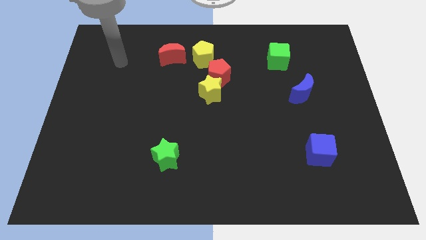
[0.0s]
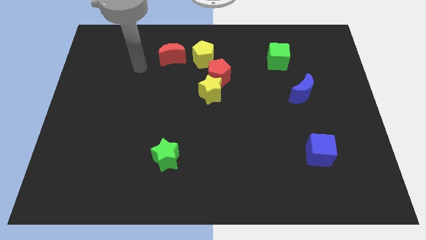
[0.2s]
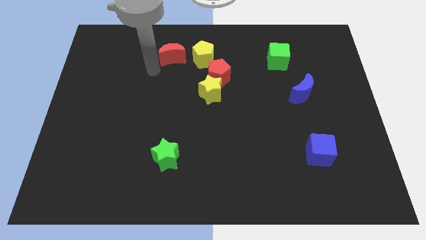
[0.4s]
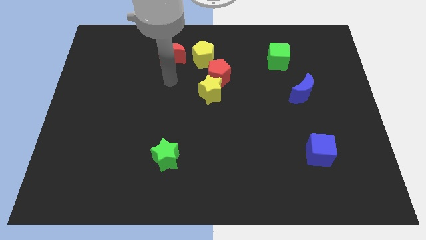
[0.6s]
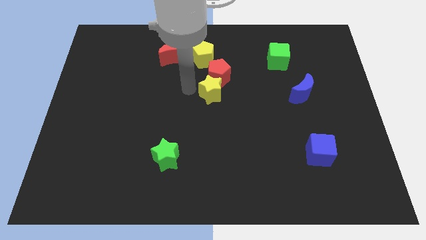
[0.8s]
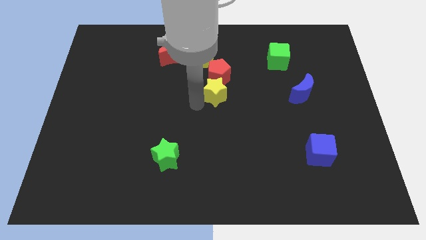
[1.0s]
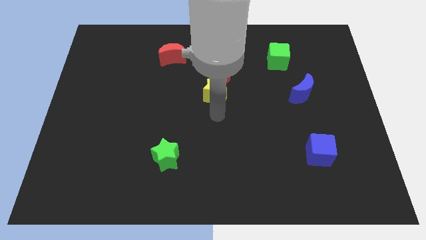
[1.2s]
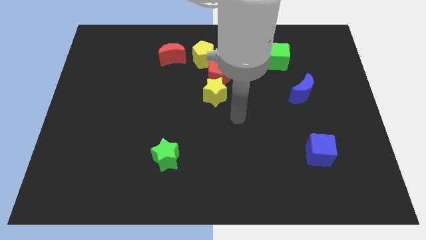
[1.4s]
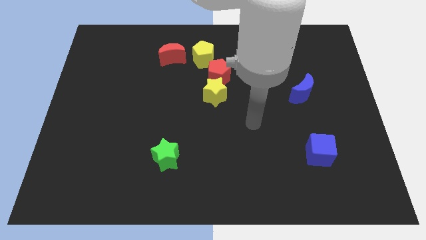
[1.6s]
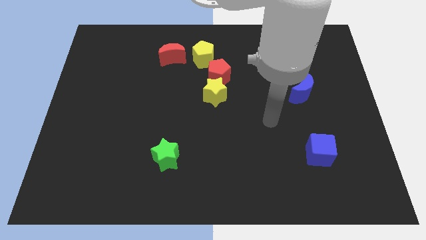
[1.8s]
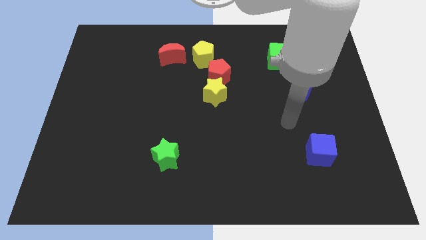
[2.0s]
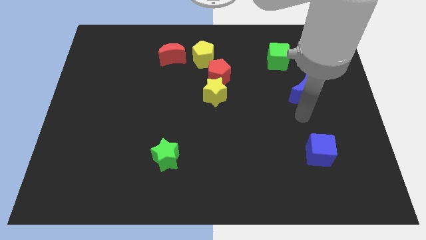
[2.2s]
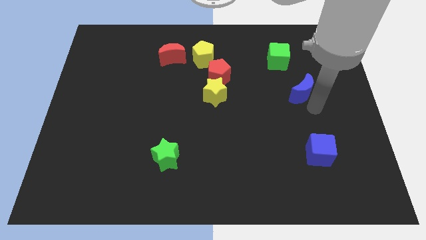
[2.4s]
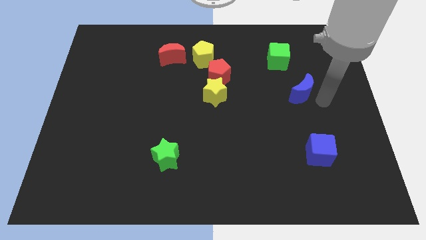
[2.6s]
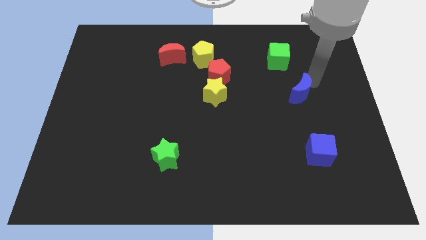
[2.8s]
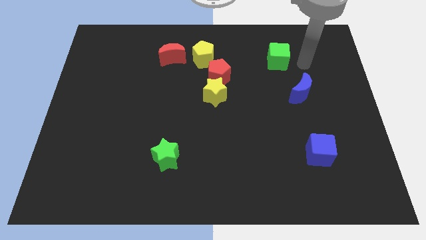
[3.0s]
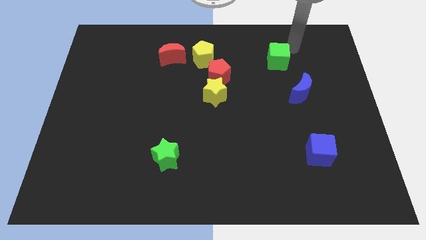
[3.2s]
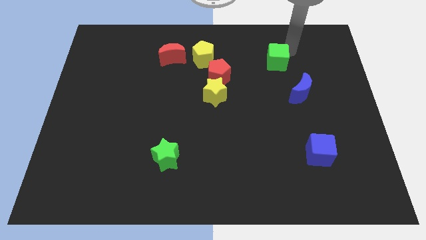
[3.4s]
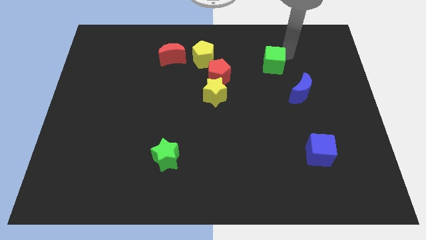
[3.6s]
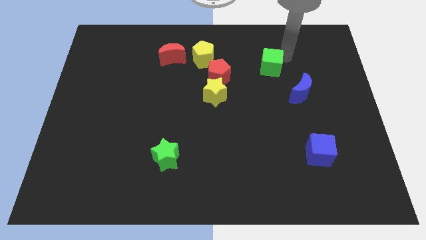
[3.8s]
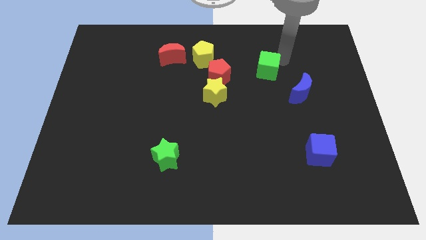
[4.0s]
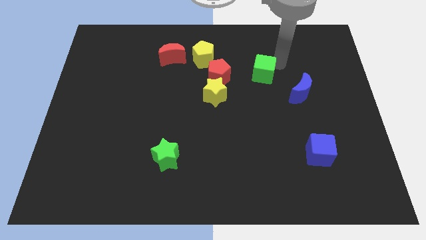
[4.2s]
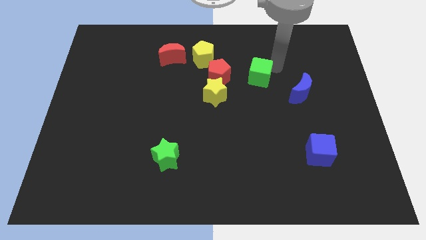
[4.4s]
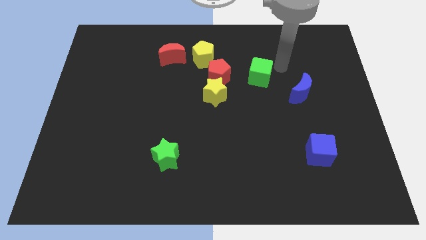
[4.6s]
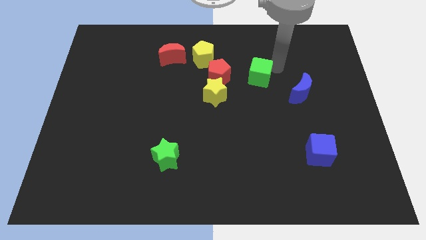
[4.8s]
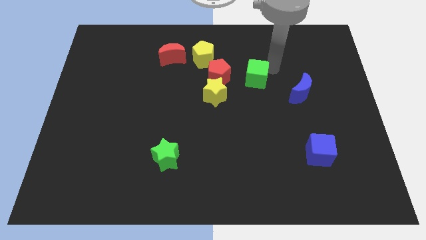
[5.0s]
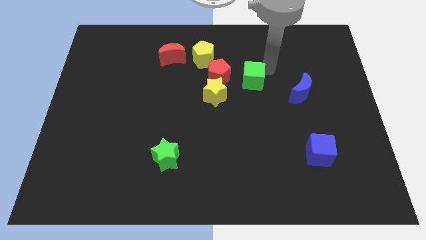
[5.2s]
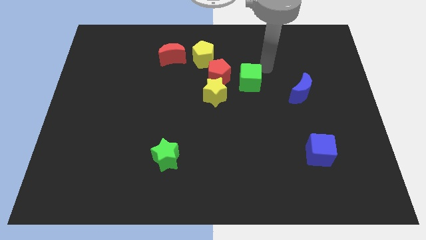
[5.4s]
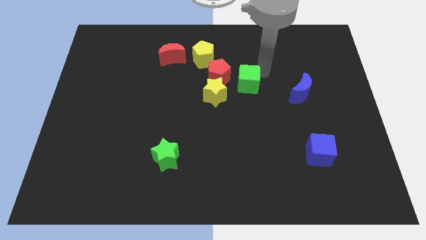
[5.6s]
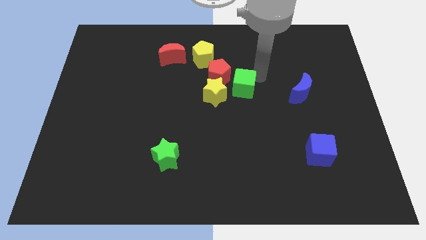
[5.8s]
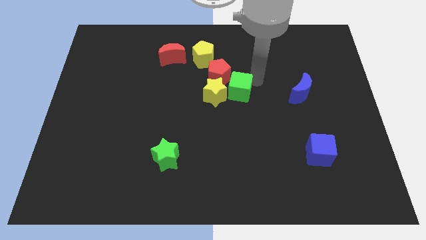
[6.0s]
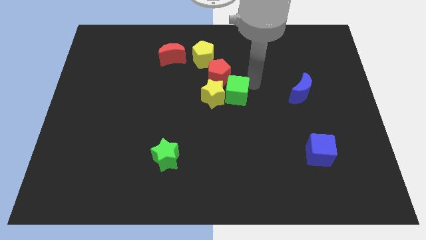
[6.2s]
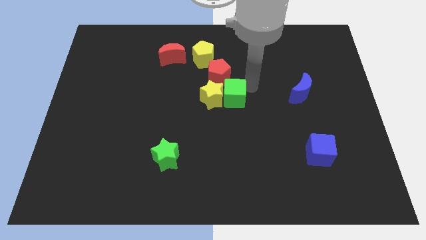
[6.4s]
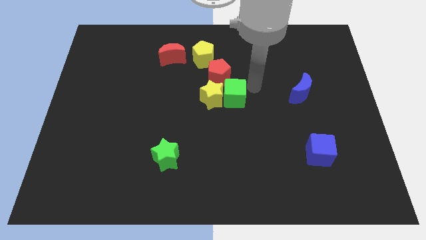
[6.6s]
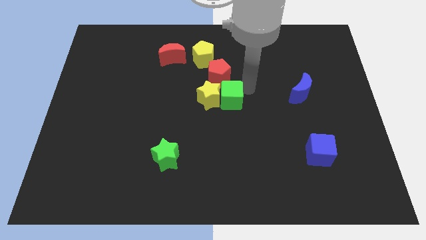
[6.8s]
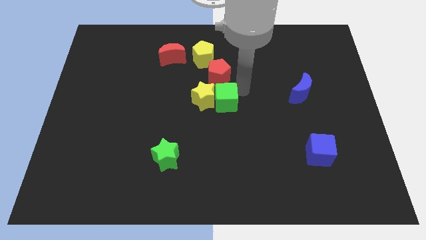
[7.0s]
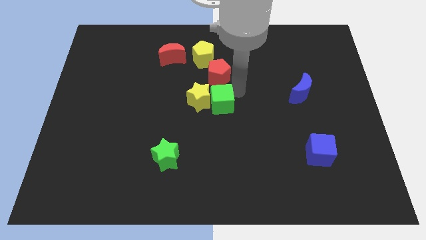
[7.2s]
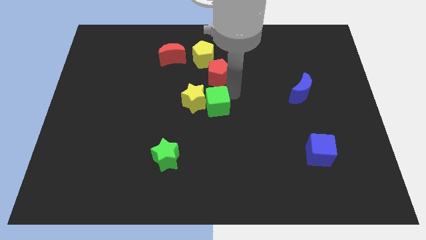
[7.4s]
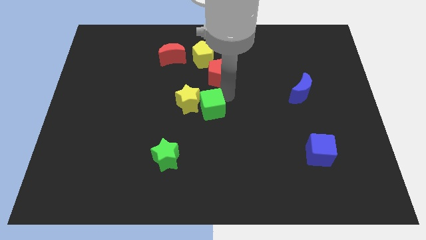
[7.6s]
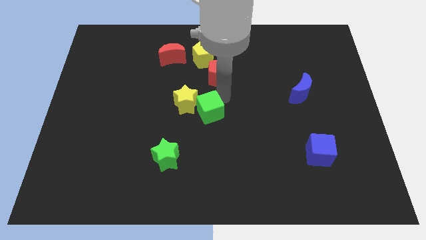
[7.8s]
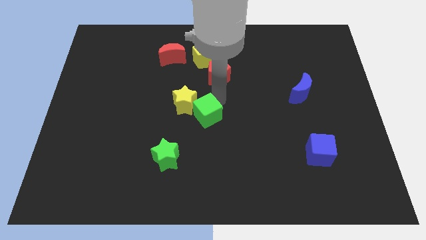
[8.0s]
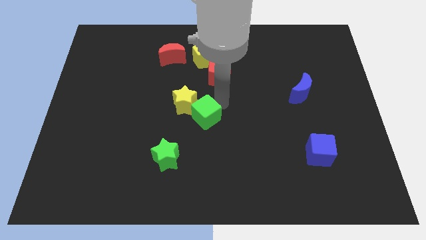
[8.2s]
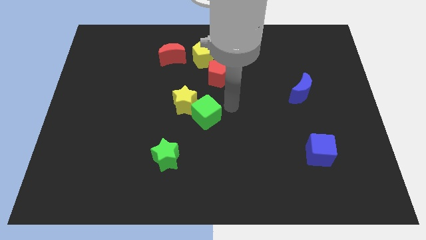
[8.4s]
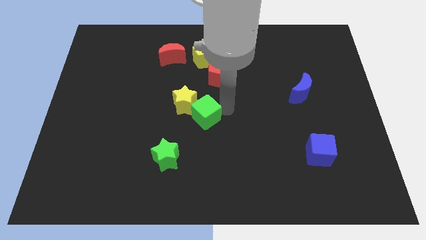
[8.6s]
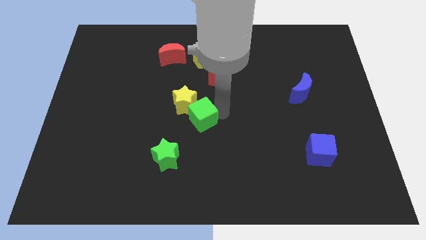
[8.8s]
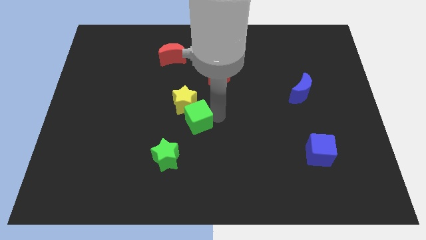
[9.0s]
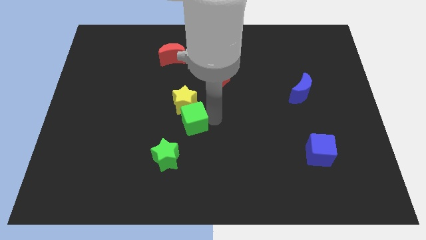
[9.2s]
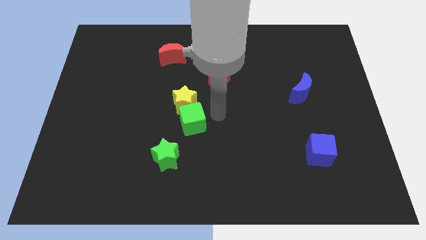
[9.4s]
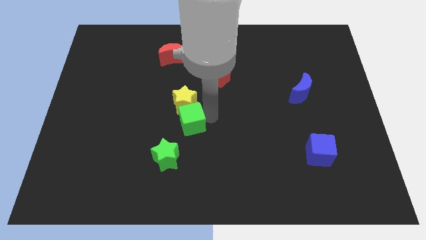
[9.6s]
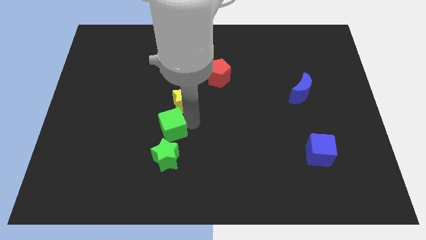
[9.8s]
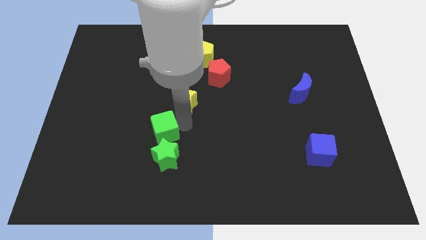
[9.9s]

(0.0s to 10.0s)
move the green cube diagonally up and to the left of the green star

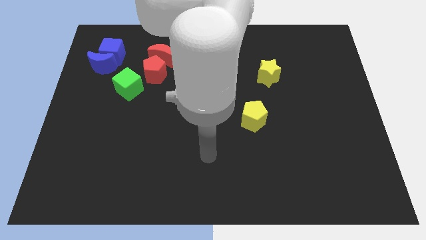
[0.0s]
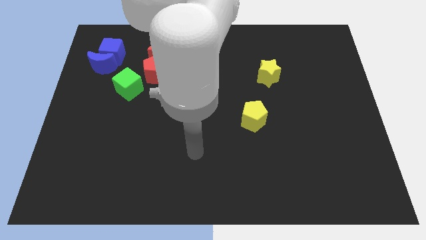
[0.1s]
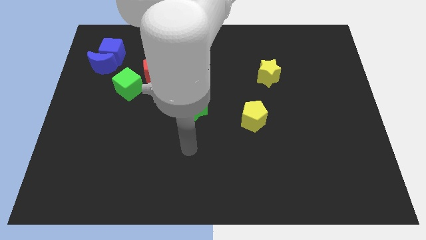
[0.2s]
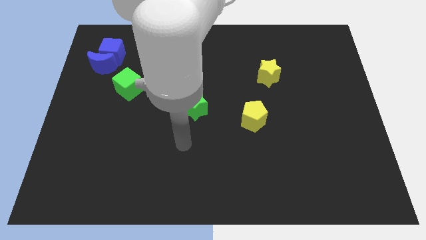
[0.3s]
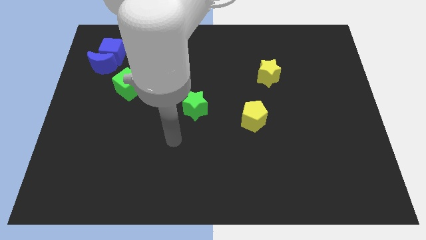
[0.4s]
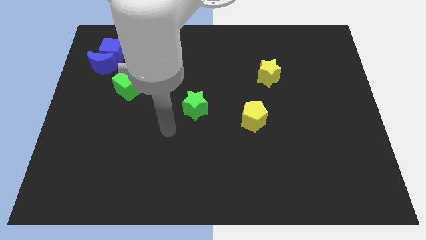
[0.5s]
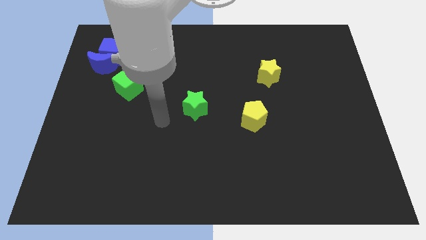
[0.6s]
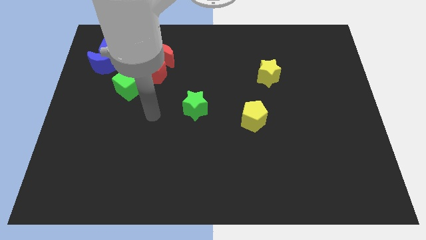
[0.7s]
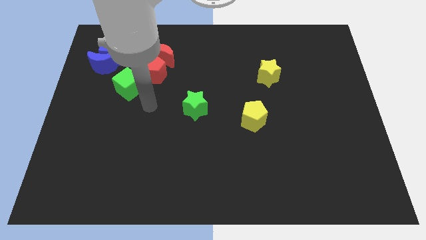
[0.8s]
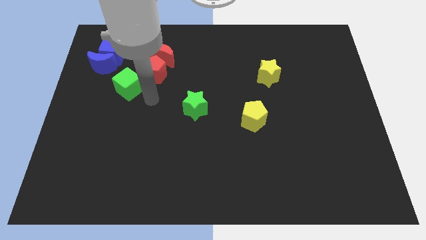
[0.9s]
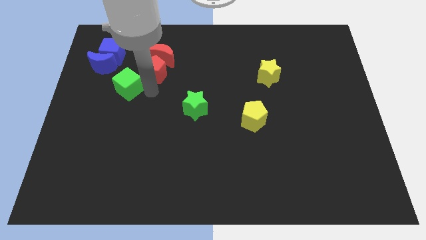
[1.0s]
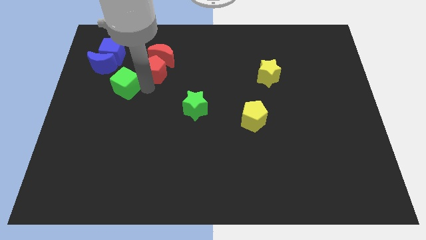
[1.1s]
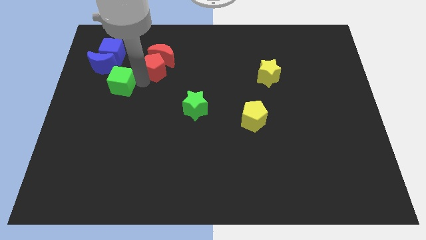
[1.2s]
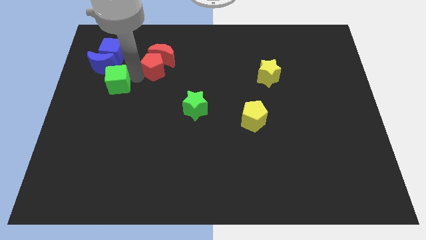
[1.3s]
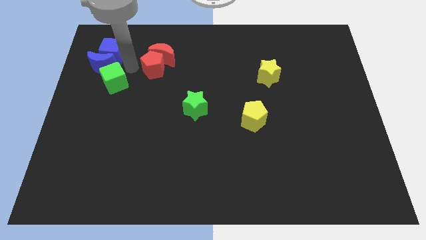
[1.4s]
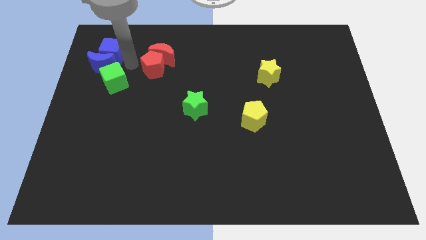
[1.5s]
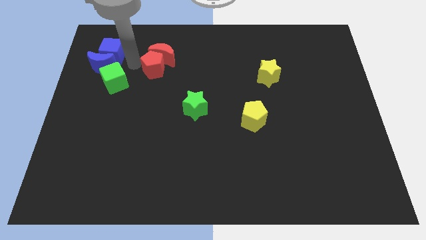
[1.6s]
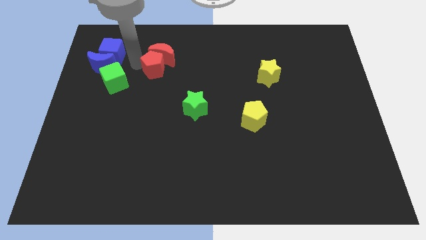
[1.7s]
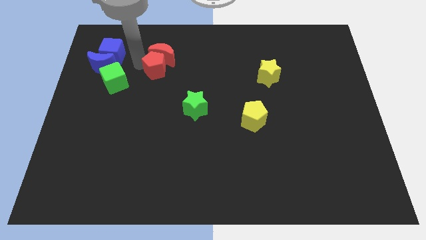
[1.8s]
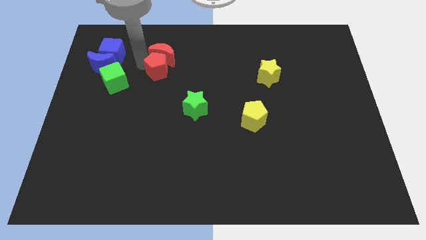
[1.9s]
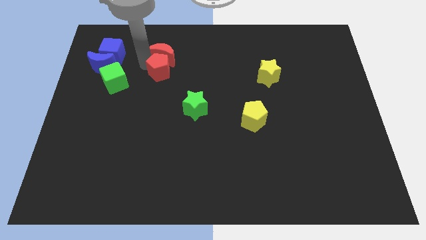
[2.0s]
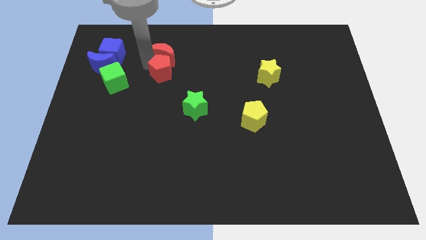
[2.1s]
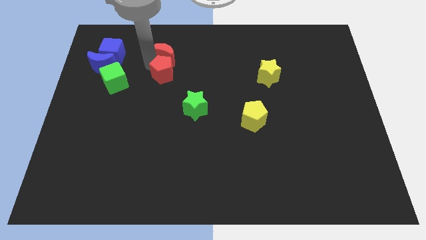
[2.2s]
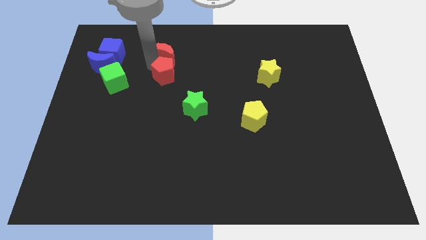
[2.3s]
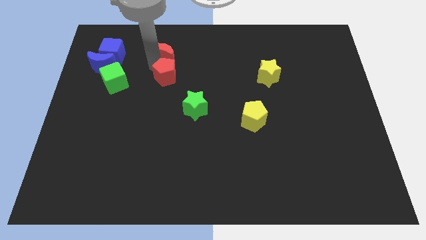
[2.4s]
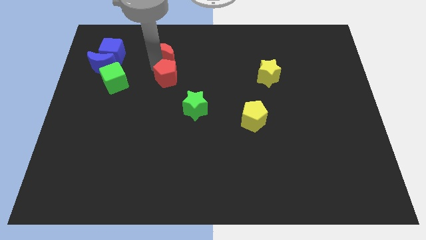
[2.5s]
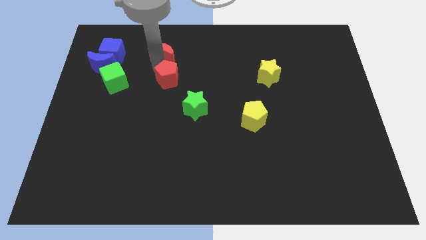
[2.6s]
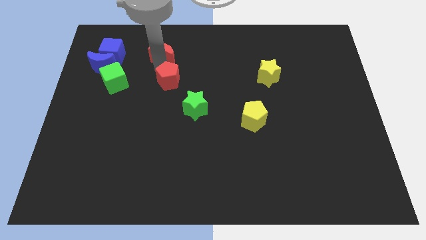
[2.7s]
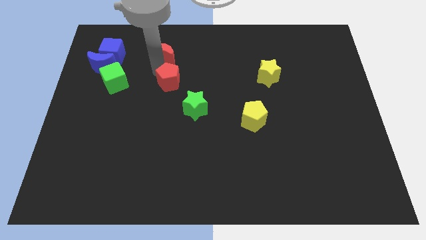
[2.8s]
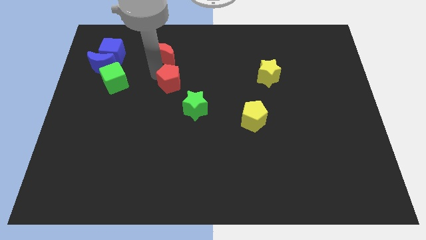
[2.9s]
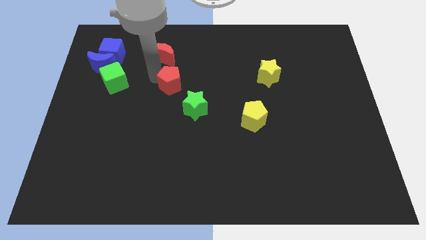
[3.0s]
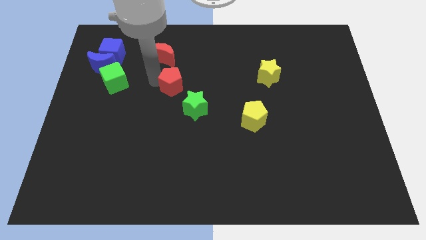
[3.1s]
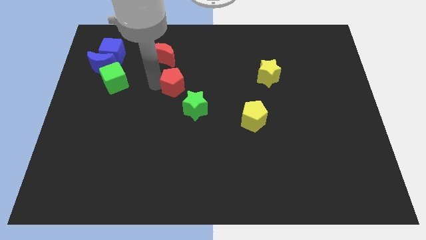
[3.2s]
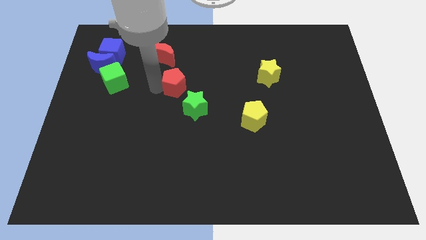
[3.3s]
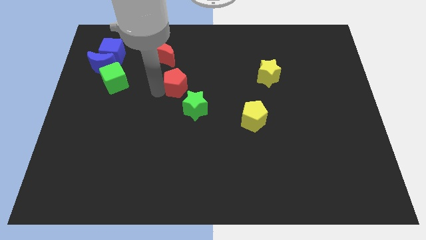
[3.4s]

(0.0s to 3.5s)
push the red pentagon to the top of the green star
